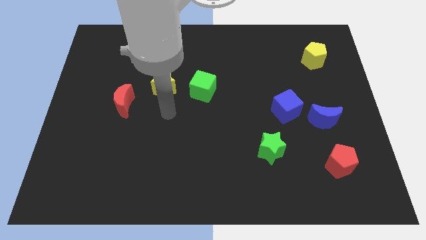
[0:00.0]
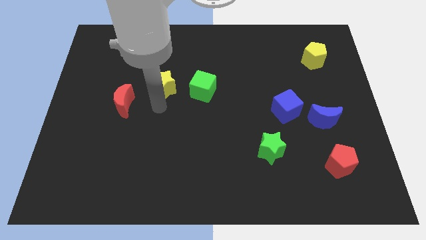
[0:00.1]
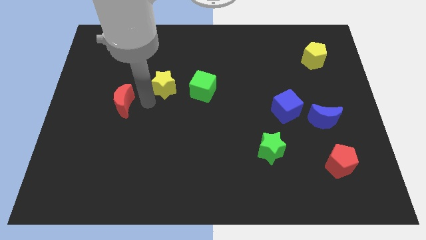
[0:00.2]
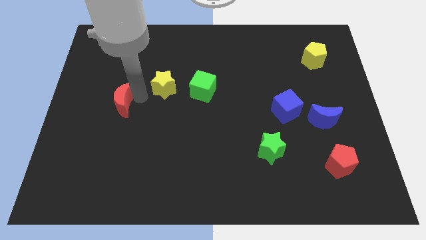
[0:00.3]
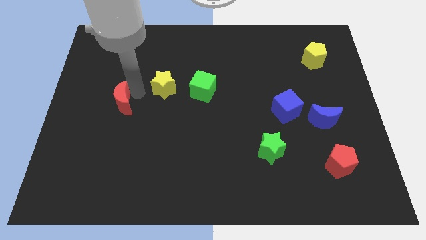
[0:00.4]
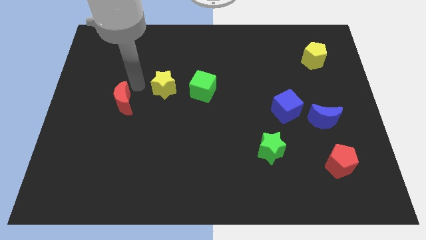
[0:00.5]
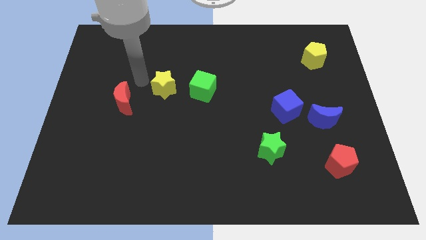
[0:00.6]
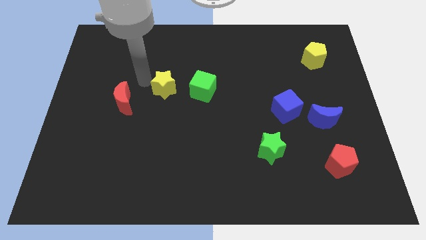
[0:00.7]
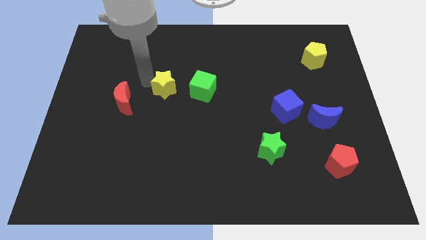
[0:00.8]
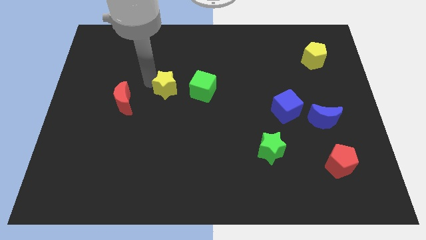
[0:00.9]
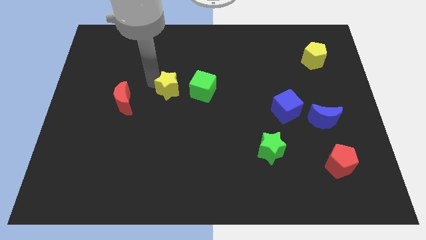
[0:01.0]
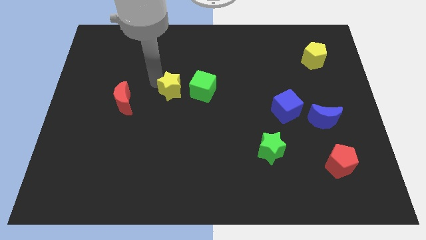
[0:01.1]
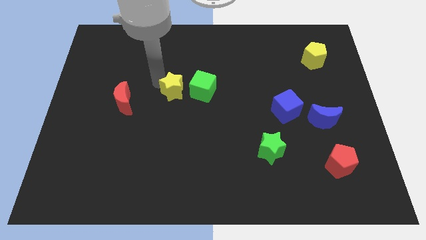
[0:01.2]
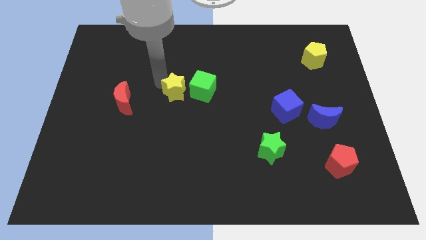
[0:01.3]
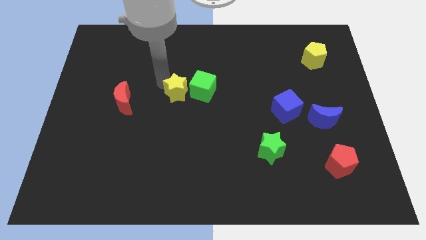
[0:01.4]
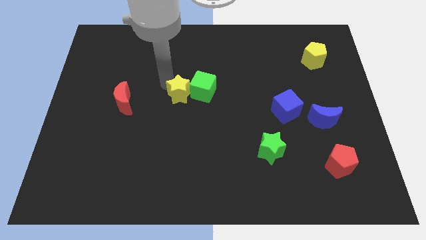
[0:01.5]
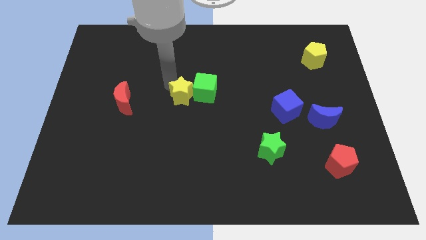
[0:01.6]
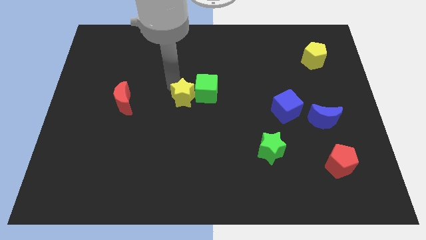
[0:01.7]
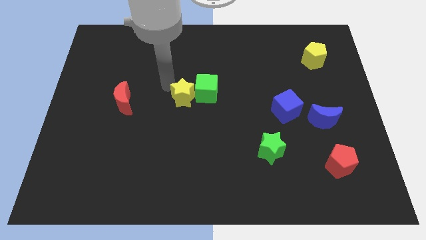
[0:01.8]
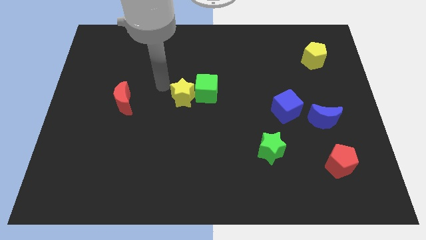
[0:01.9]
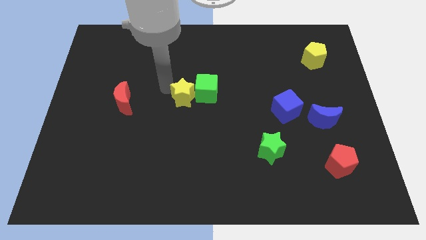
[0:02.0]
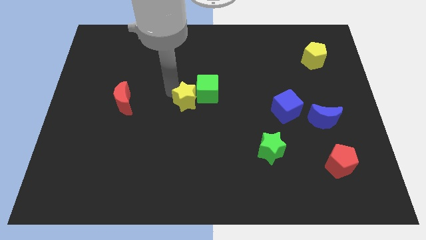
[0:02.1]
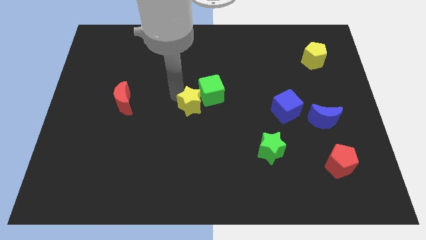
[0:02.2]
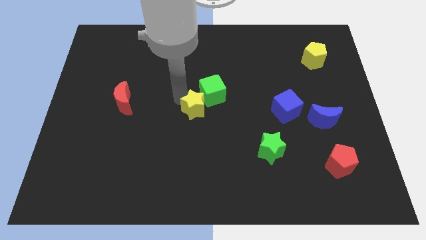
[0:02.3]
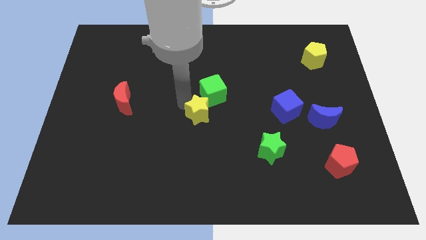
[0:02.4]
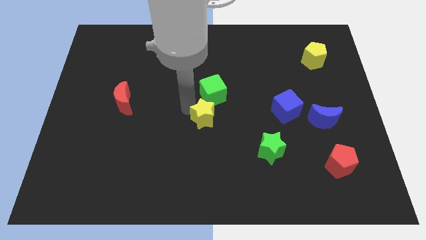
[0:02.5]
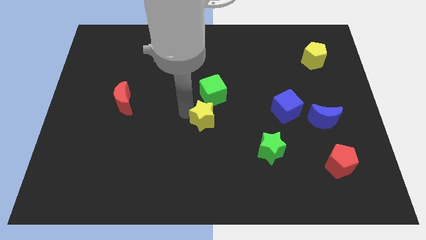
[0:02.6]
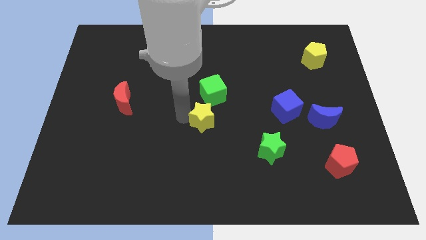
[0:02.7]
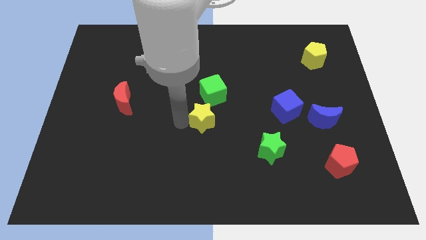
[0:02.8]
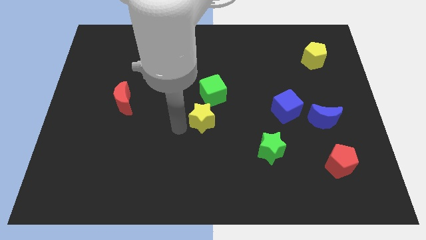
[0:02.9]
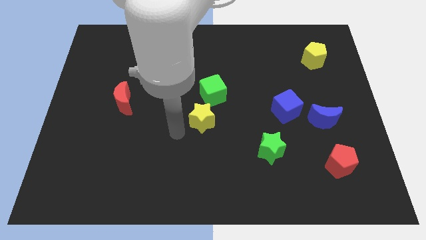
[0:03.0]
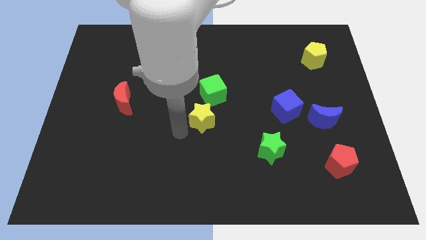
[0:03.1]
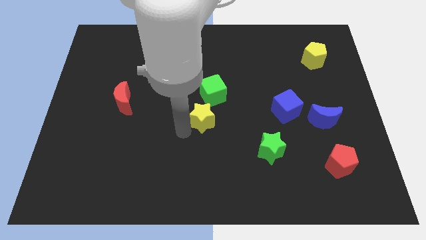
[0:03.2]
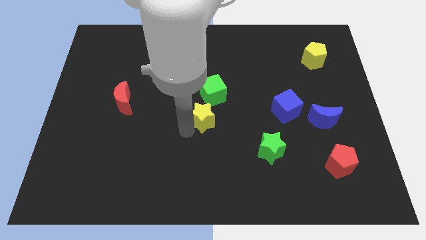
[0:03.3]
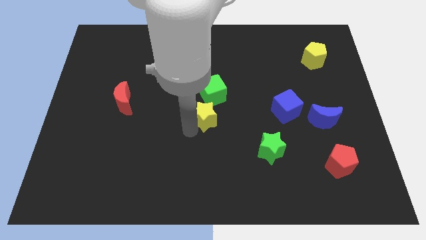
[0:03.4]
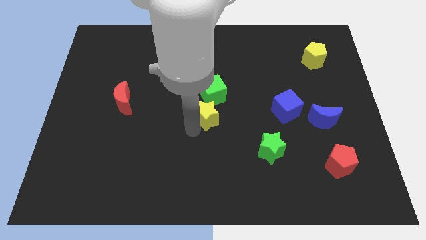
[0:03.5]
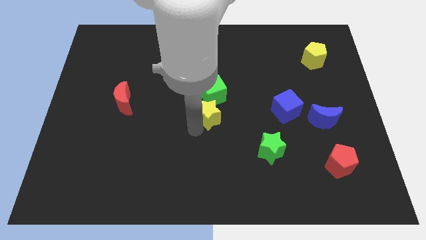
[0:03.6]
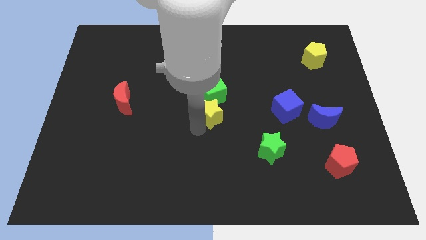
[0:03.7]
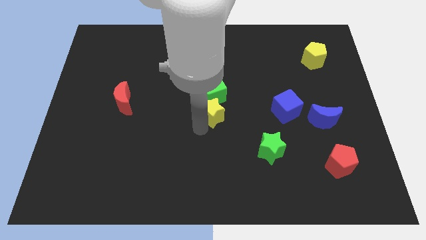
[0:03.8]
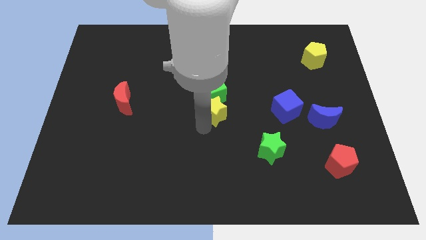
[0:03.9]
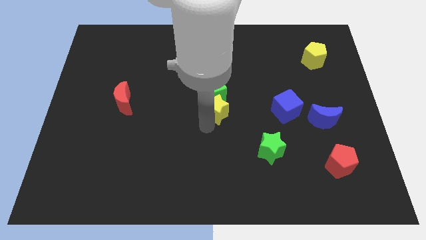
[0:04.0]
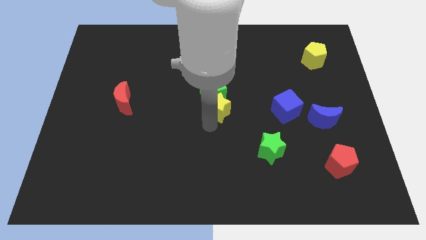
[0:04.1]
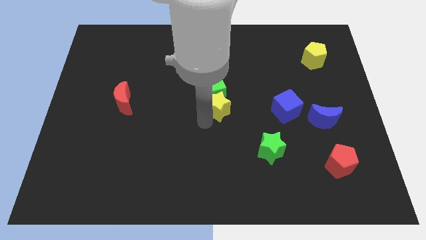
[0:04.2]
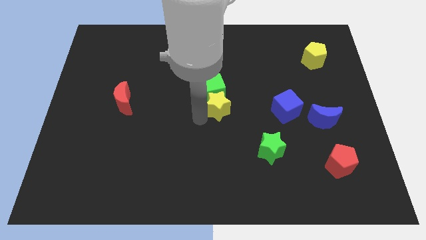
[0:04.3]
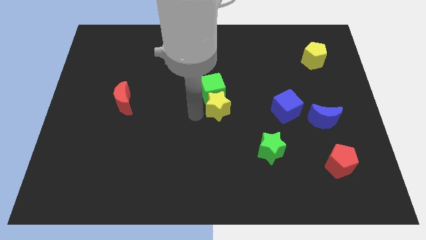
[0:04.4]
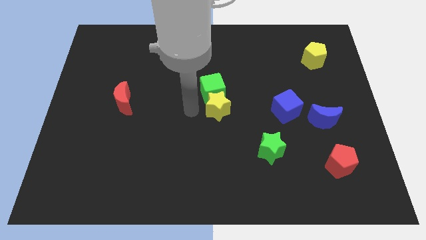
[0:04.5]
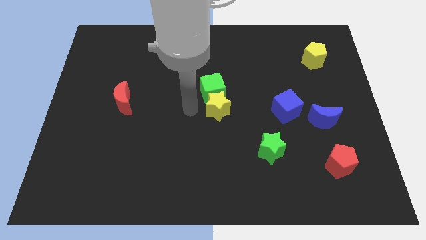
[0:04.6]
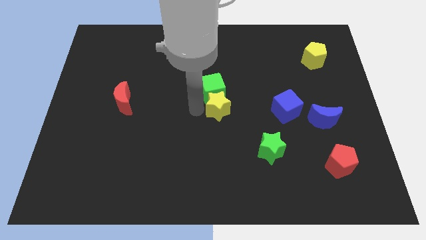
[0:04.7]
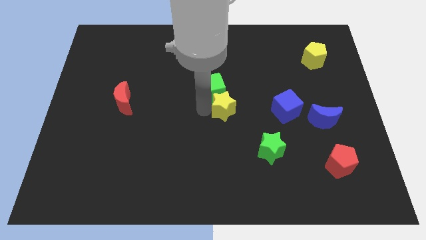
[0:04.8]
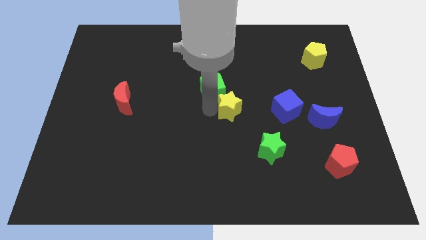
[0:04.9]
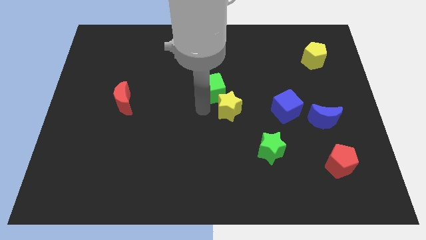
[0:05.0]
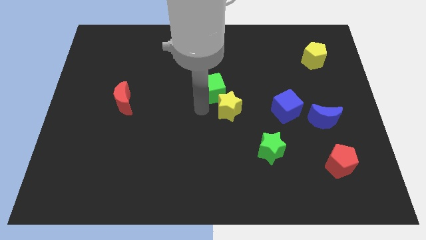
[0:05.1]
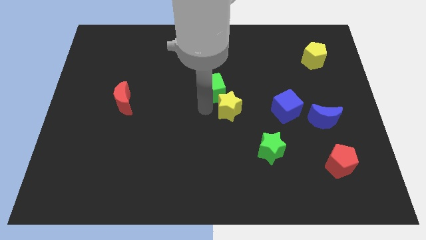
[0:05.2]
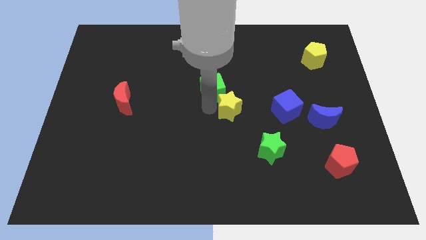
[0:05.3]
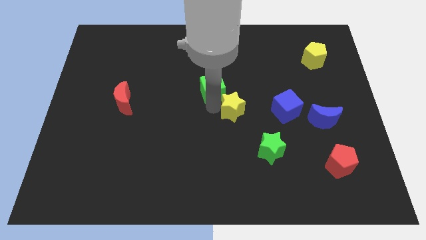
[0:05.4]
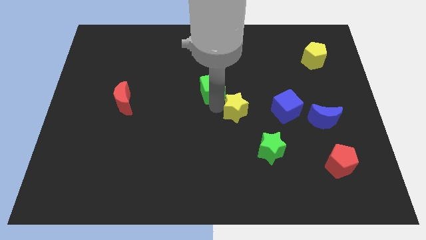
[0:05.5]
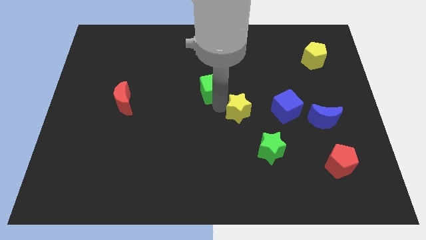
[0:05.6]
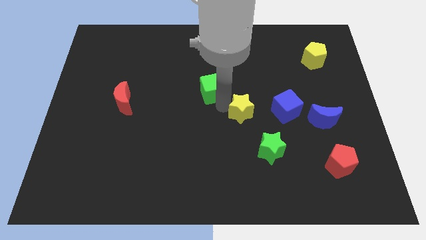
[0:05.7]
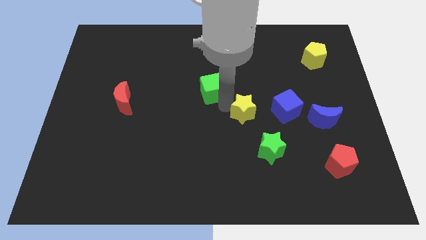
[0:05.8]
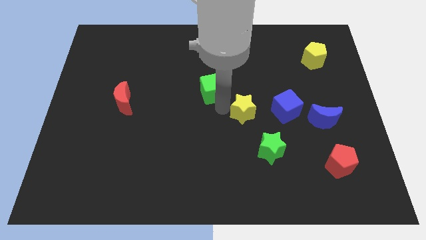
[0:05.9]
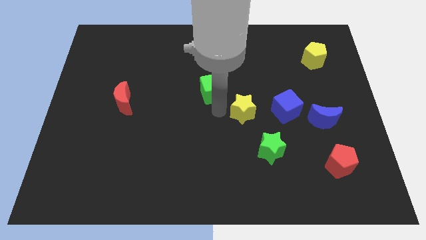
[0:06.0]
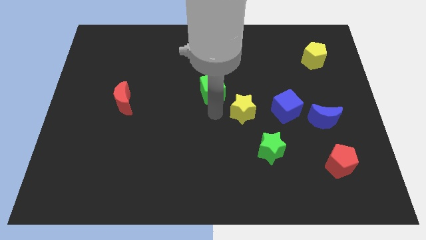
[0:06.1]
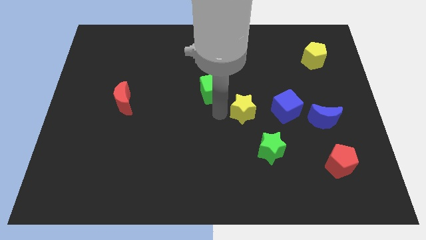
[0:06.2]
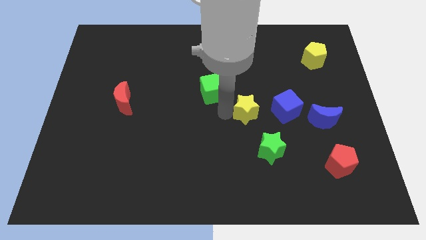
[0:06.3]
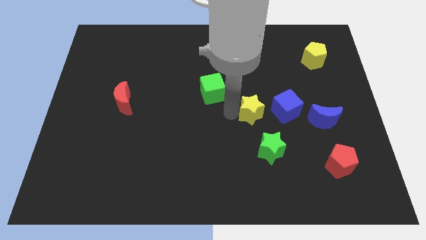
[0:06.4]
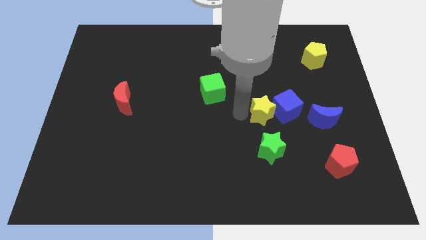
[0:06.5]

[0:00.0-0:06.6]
put the yellow star next to the blue cube

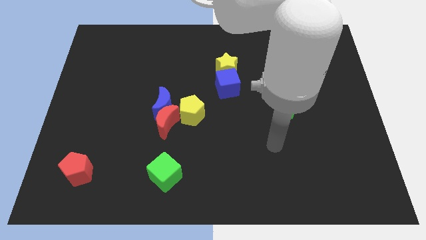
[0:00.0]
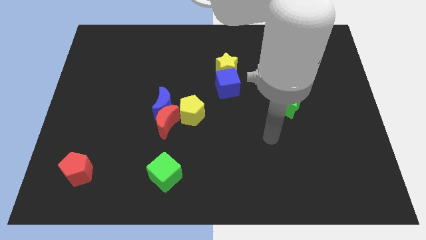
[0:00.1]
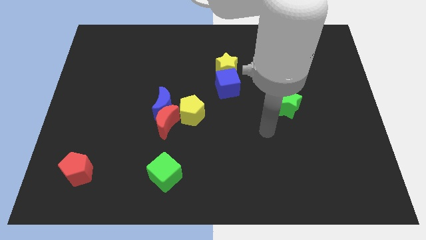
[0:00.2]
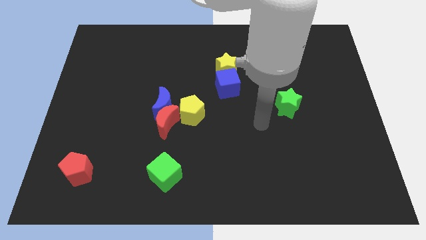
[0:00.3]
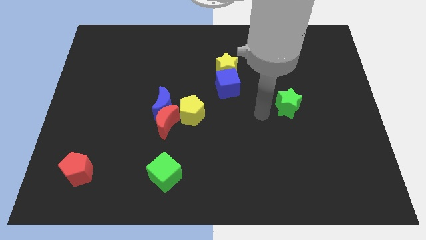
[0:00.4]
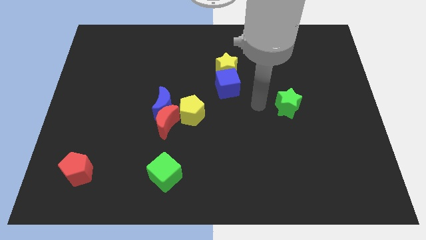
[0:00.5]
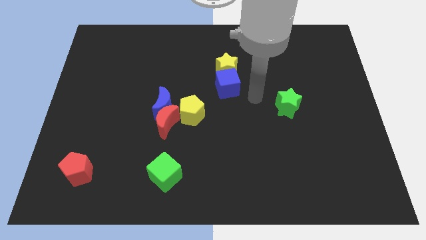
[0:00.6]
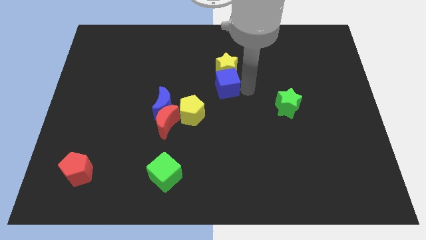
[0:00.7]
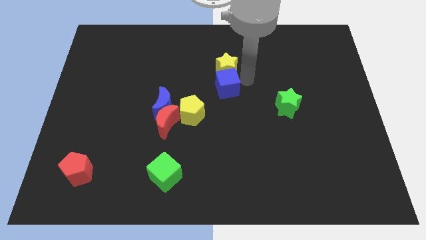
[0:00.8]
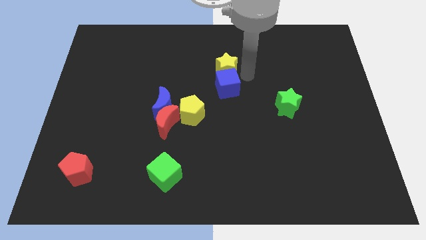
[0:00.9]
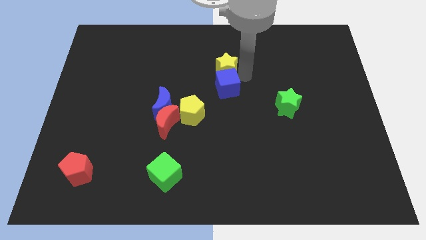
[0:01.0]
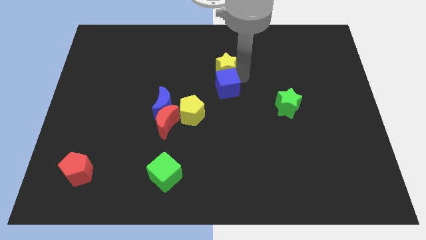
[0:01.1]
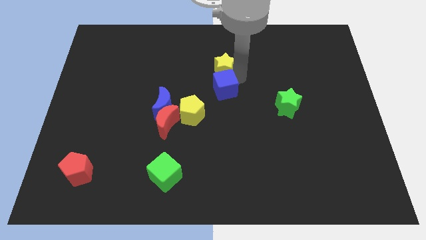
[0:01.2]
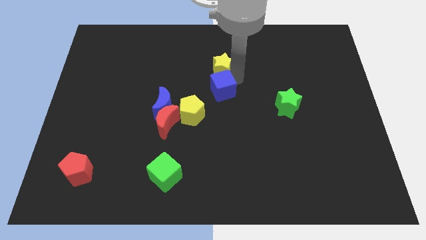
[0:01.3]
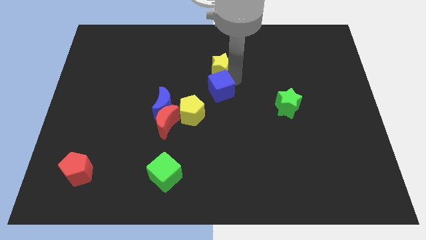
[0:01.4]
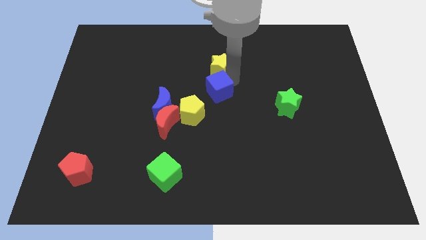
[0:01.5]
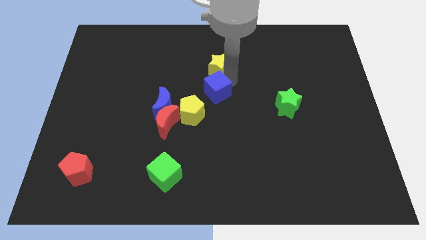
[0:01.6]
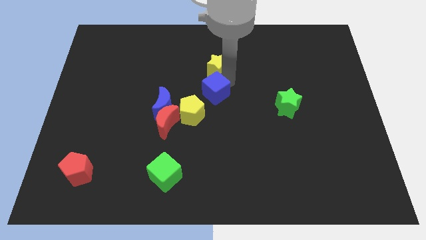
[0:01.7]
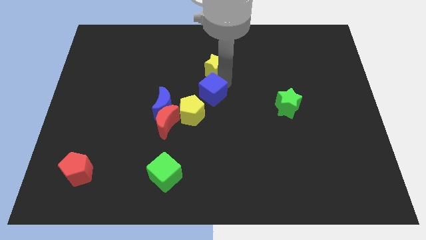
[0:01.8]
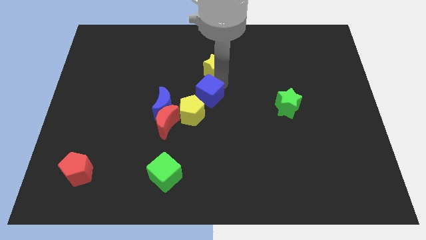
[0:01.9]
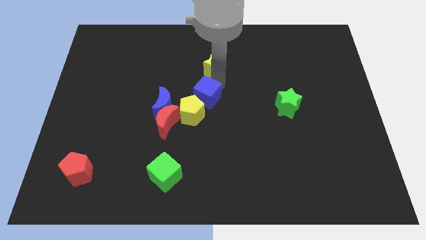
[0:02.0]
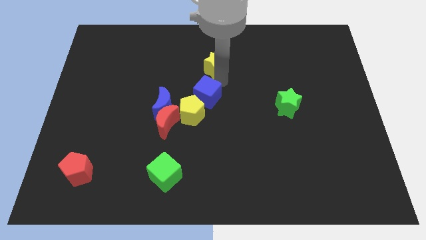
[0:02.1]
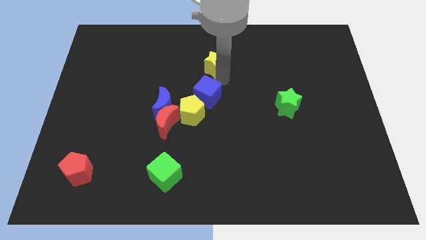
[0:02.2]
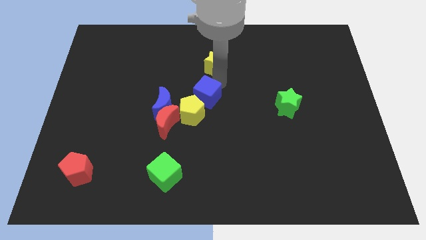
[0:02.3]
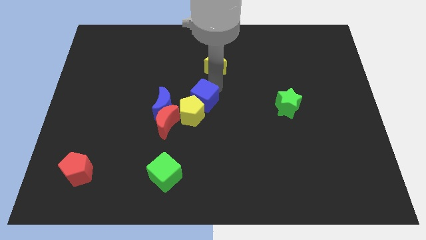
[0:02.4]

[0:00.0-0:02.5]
put the blue cube close to the yellow pentagon
